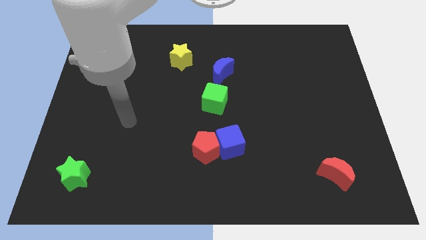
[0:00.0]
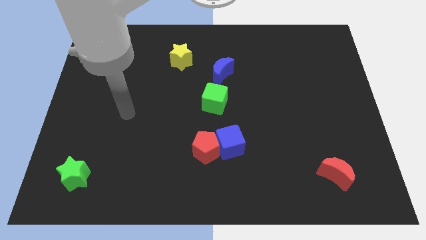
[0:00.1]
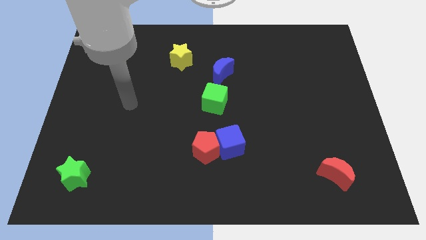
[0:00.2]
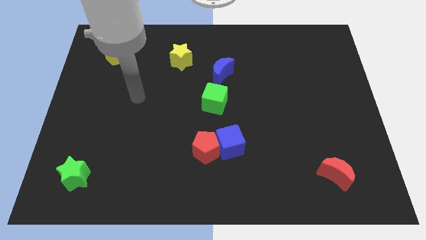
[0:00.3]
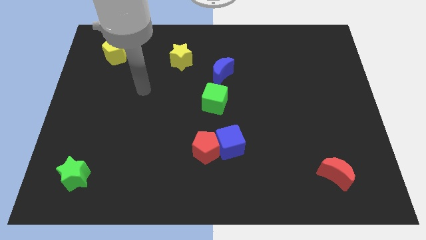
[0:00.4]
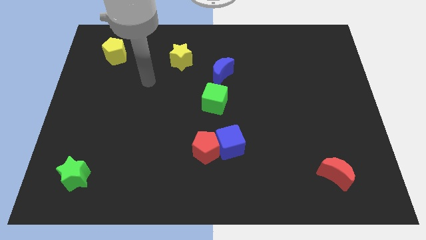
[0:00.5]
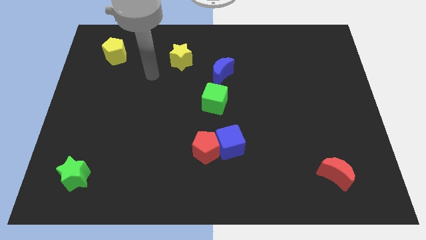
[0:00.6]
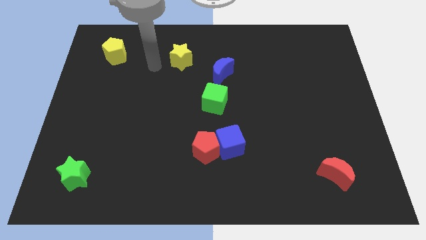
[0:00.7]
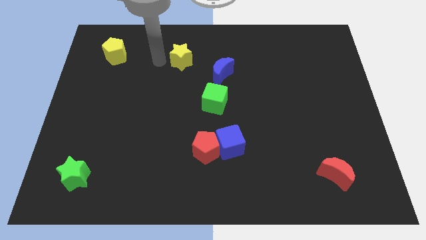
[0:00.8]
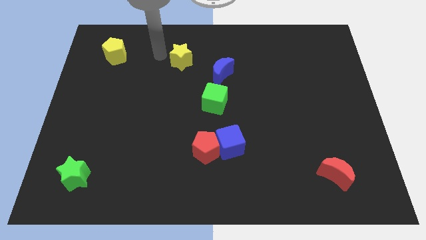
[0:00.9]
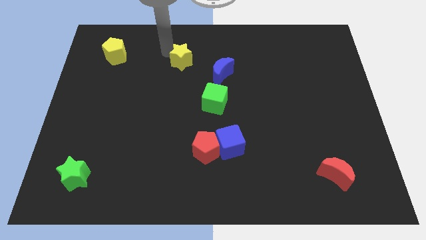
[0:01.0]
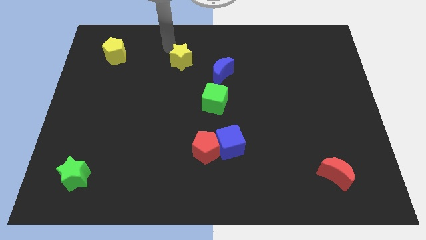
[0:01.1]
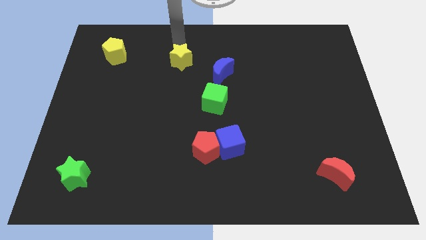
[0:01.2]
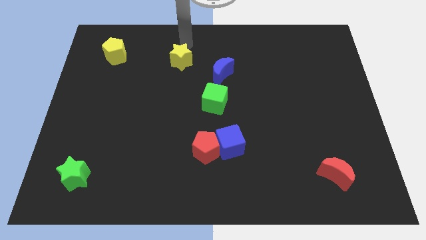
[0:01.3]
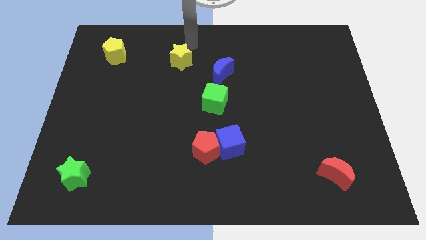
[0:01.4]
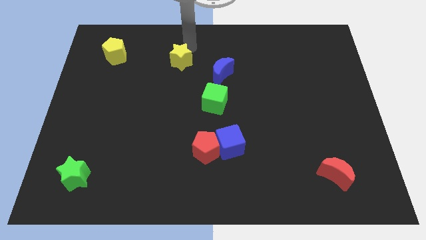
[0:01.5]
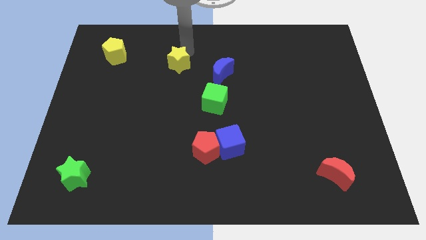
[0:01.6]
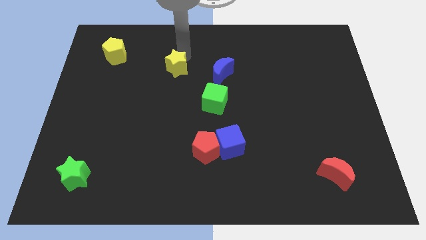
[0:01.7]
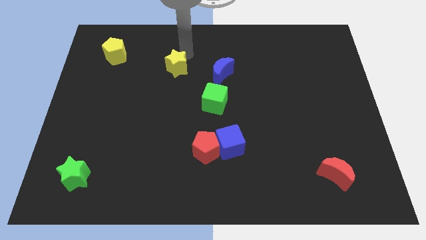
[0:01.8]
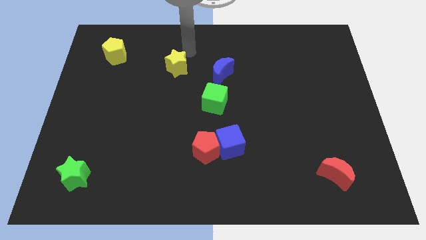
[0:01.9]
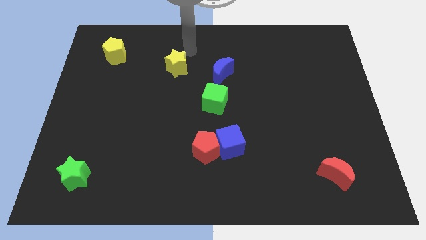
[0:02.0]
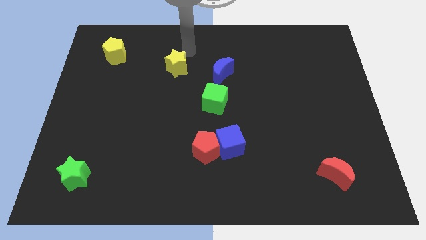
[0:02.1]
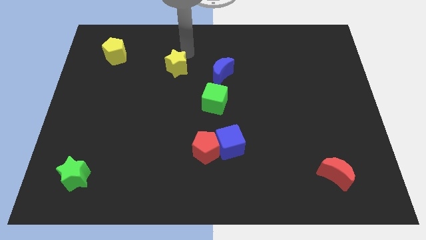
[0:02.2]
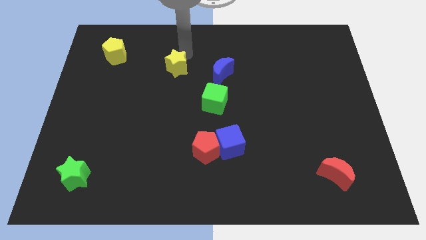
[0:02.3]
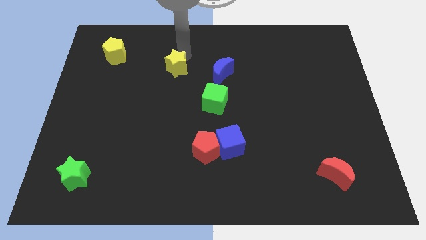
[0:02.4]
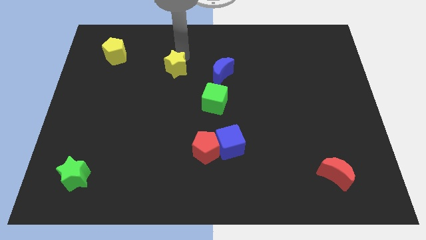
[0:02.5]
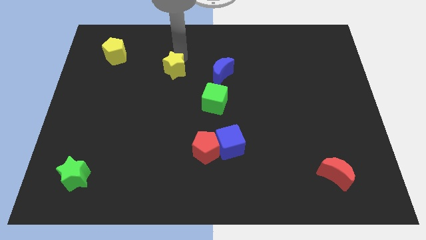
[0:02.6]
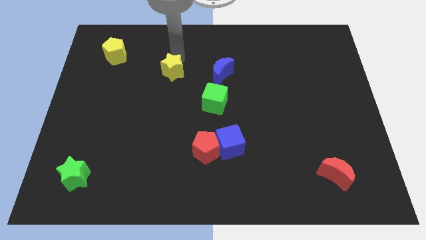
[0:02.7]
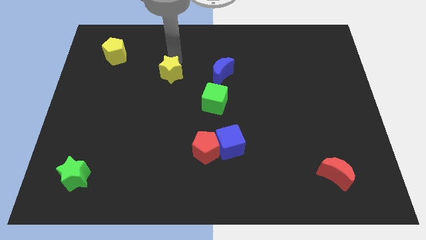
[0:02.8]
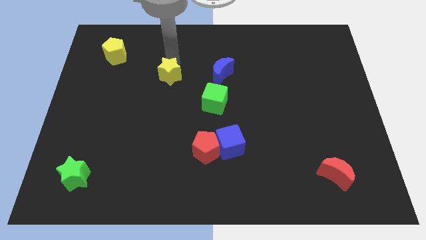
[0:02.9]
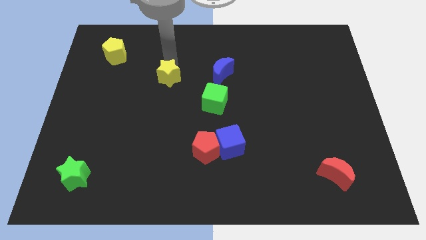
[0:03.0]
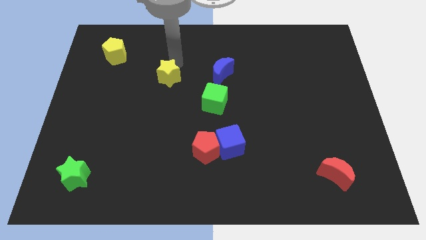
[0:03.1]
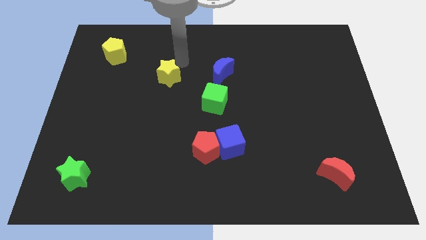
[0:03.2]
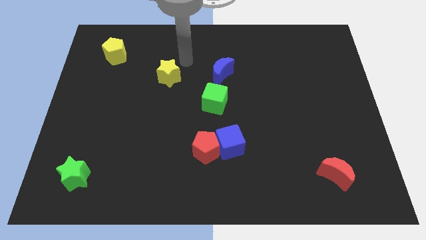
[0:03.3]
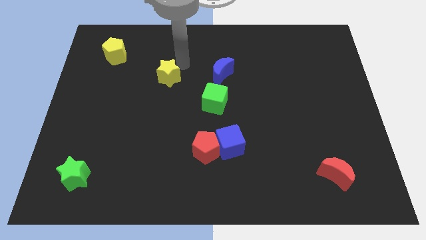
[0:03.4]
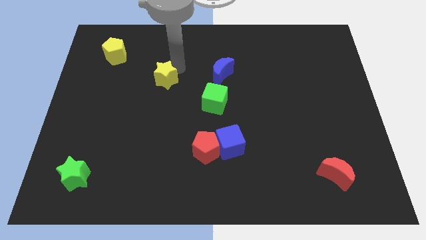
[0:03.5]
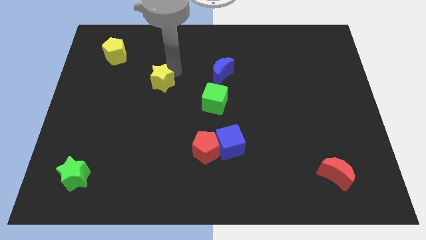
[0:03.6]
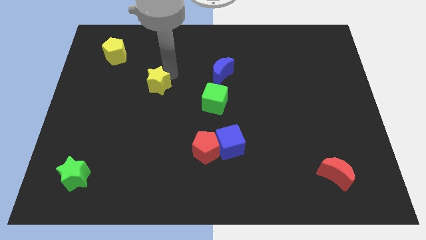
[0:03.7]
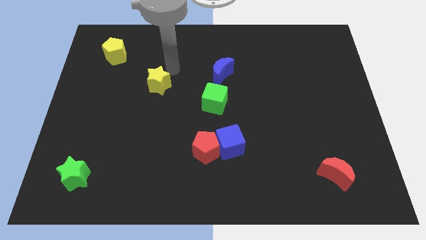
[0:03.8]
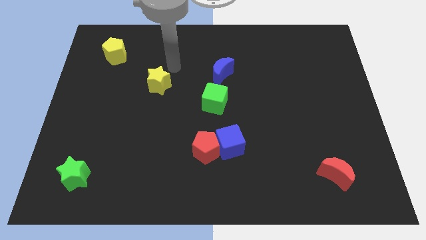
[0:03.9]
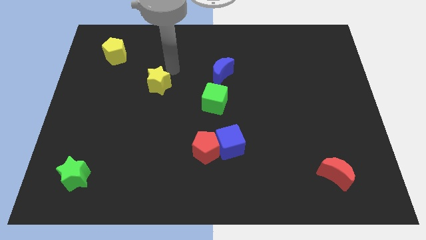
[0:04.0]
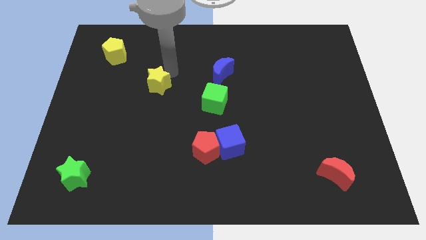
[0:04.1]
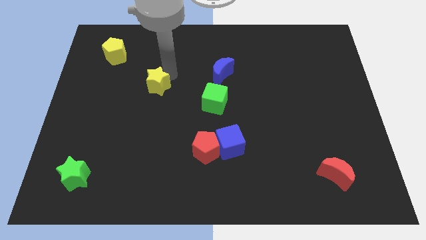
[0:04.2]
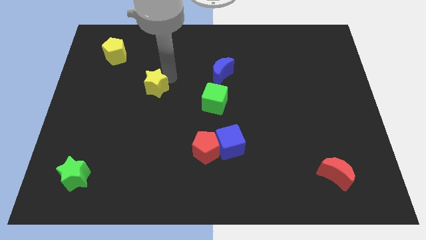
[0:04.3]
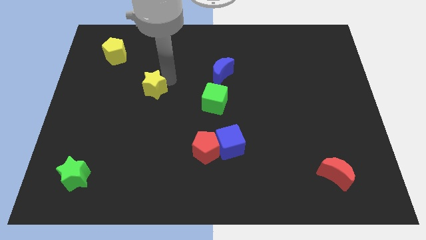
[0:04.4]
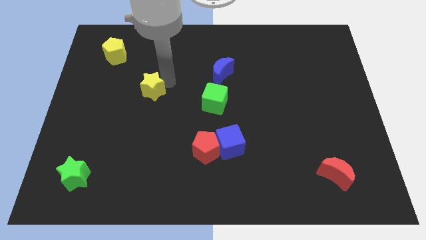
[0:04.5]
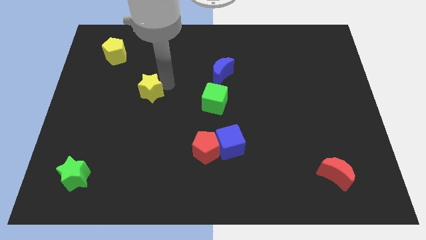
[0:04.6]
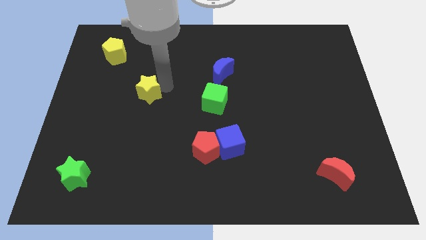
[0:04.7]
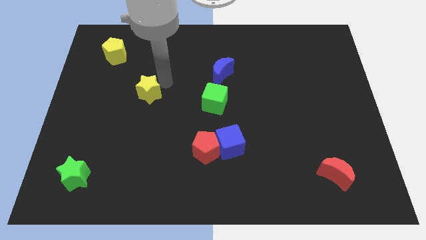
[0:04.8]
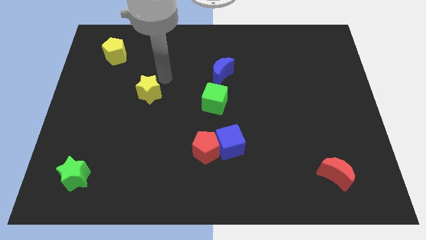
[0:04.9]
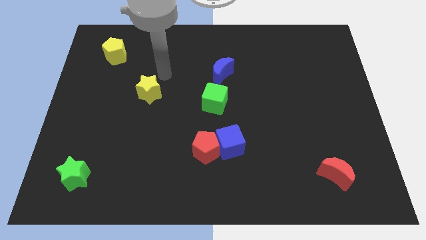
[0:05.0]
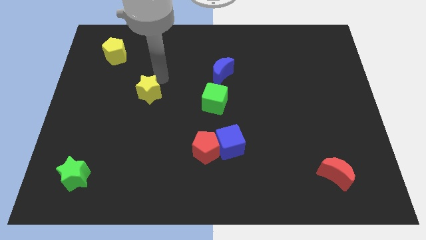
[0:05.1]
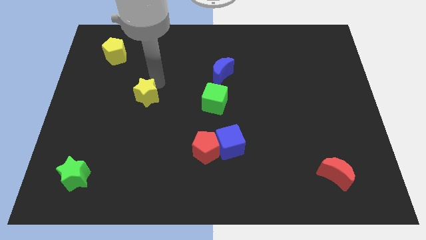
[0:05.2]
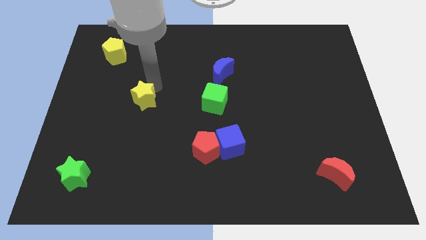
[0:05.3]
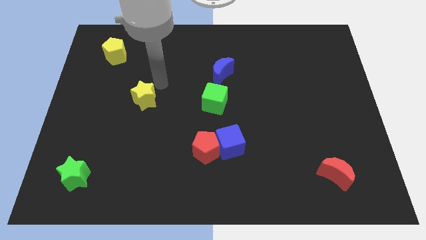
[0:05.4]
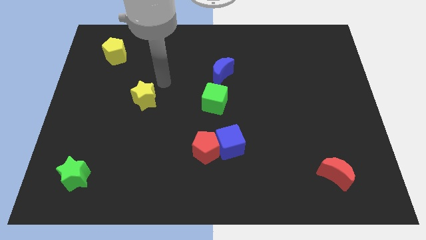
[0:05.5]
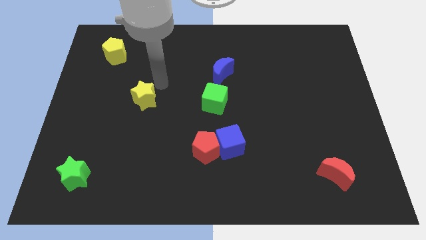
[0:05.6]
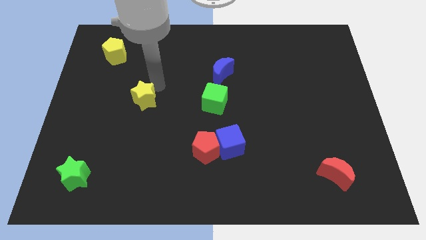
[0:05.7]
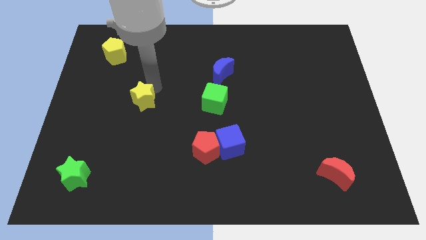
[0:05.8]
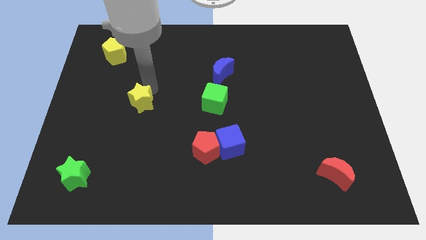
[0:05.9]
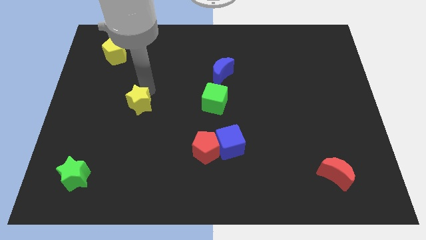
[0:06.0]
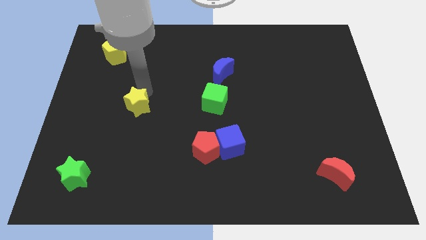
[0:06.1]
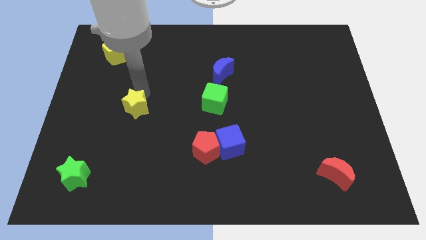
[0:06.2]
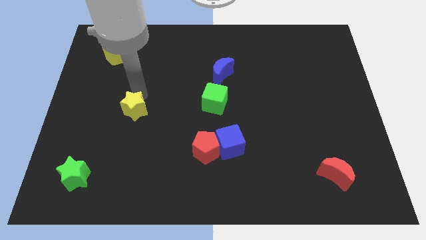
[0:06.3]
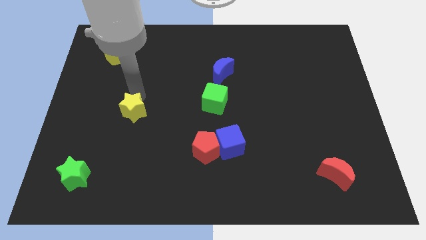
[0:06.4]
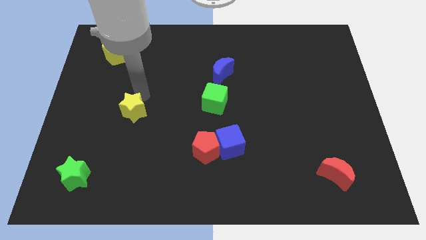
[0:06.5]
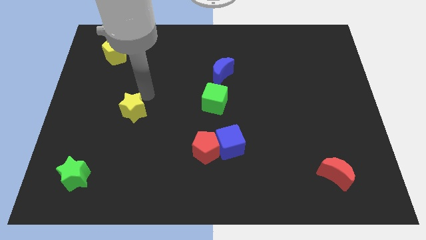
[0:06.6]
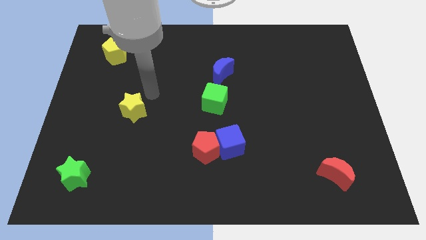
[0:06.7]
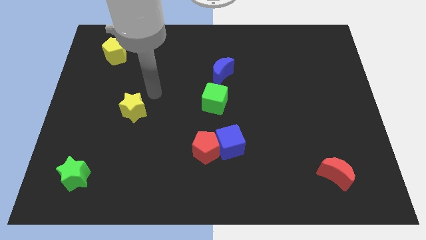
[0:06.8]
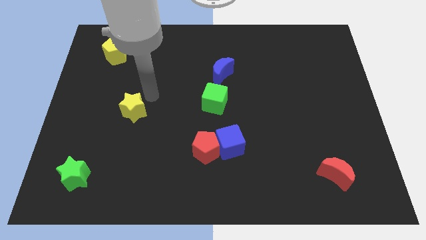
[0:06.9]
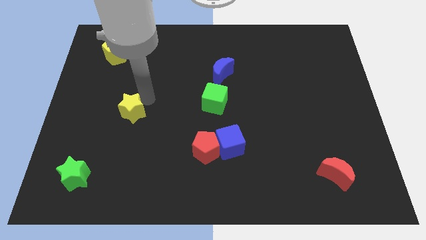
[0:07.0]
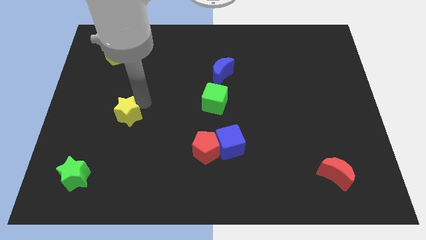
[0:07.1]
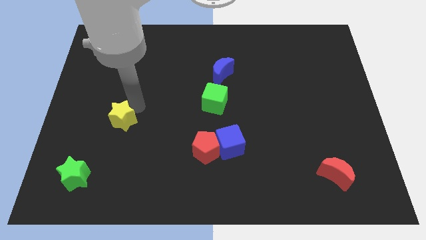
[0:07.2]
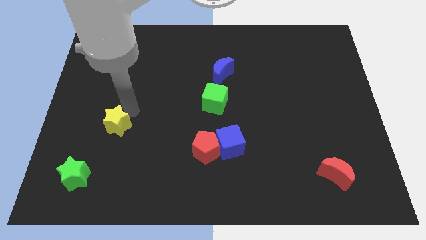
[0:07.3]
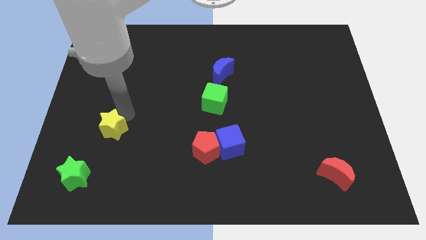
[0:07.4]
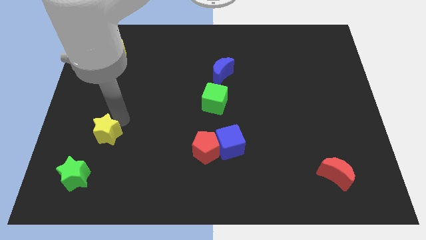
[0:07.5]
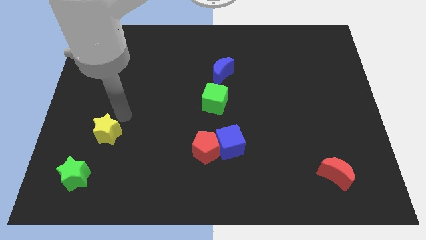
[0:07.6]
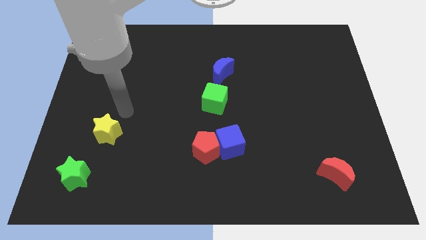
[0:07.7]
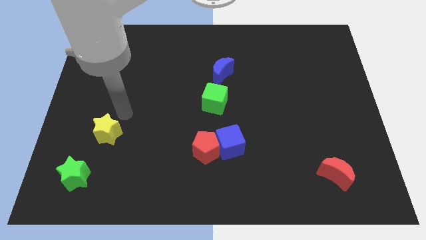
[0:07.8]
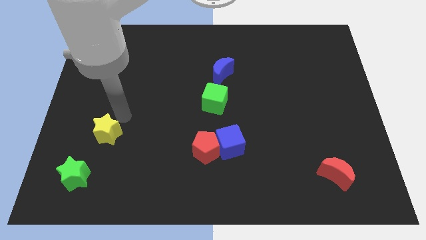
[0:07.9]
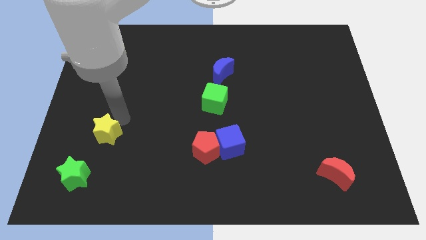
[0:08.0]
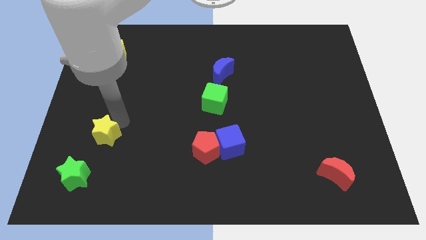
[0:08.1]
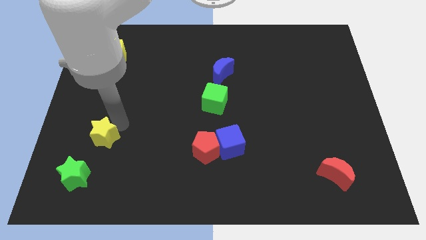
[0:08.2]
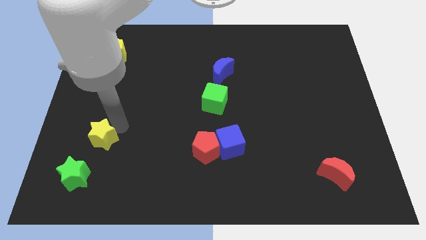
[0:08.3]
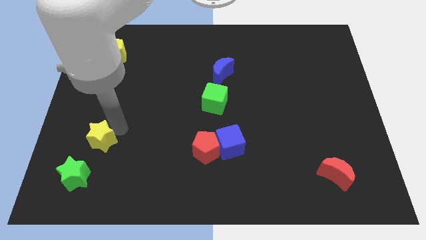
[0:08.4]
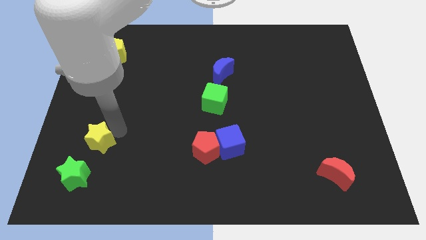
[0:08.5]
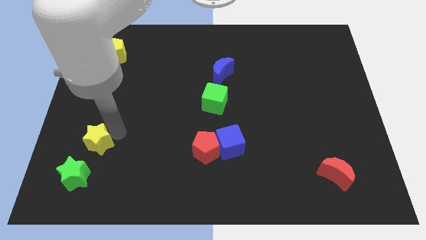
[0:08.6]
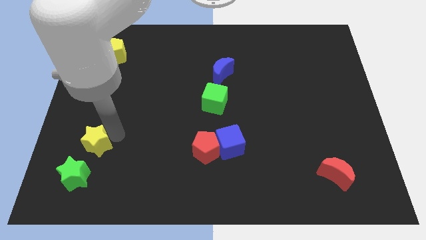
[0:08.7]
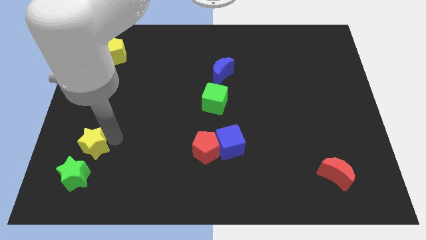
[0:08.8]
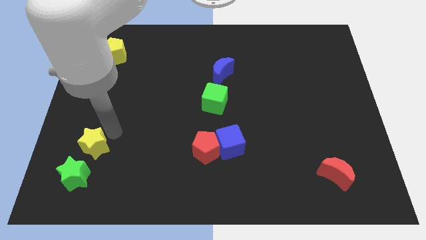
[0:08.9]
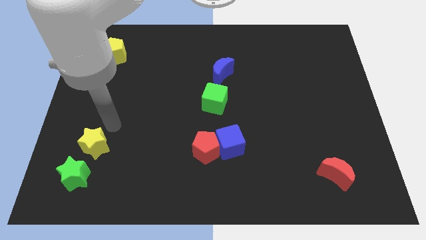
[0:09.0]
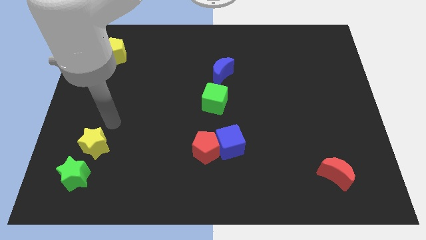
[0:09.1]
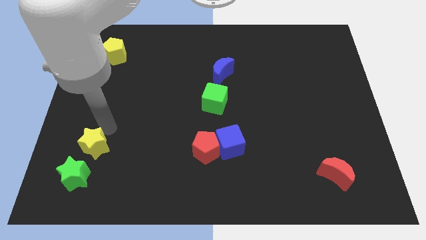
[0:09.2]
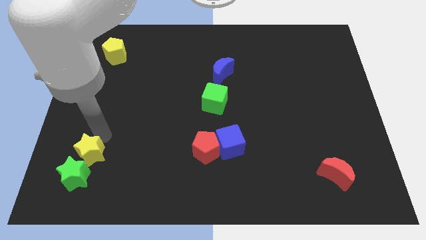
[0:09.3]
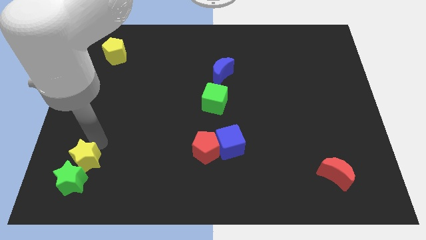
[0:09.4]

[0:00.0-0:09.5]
move the yellow star to the green star
